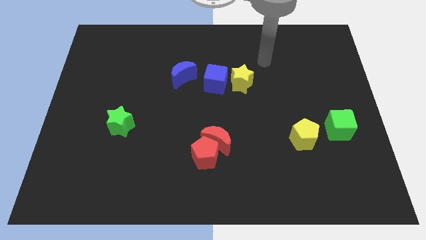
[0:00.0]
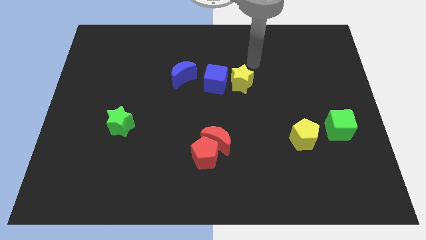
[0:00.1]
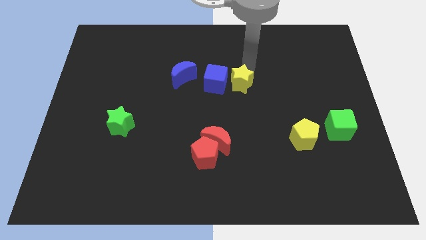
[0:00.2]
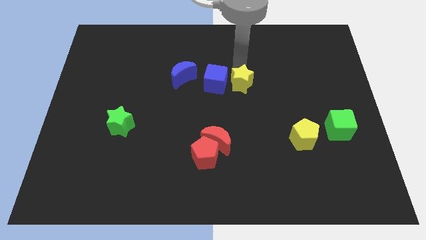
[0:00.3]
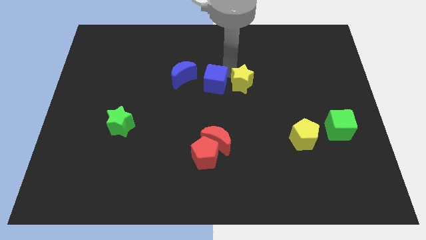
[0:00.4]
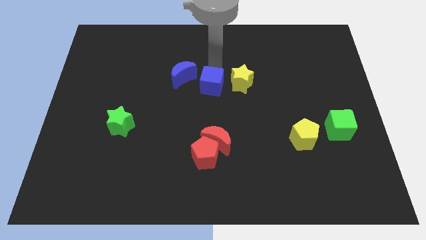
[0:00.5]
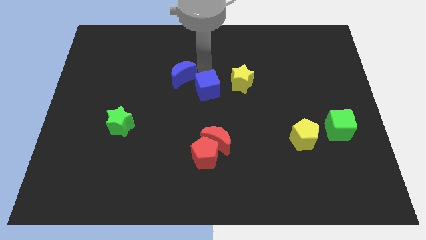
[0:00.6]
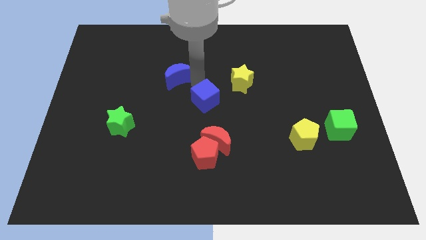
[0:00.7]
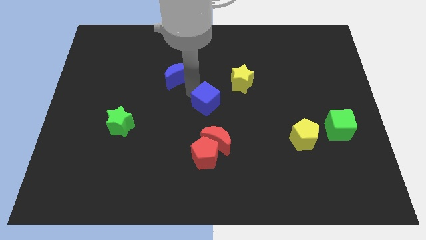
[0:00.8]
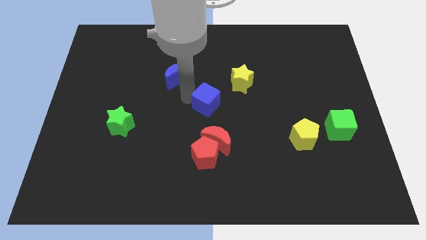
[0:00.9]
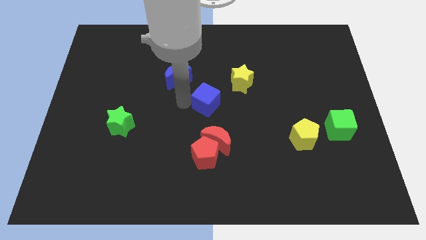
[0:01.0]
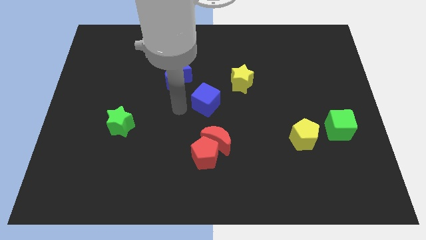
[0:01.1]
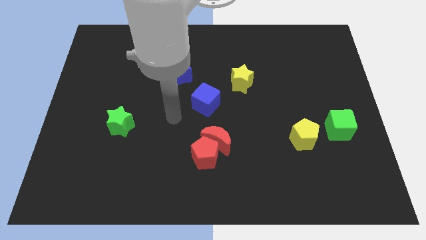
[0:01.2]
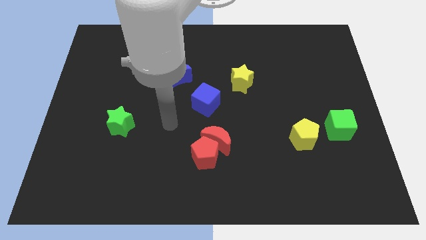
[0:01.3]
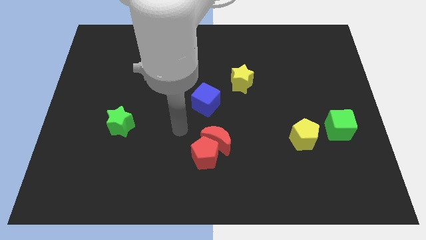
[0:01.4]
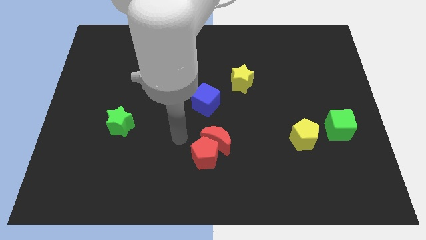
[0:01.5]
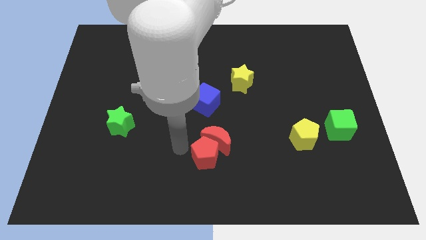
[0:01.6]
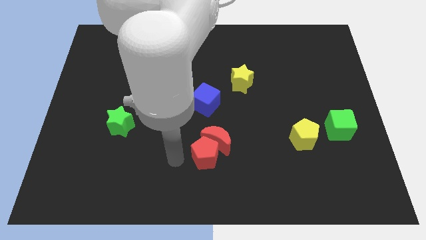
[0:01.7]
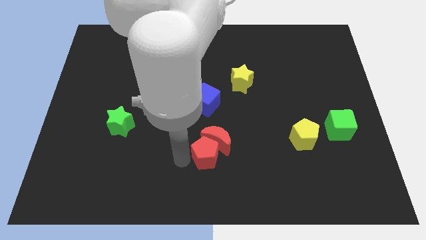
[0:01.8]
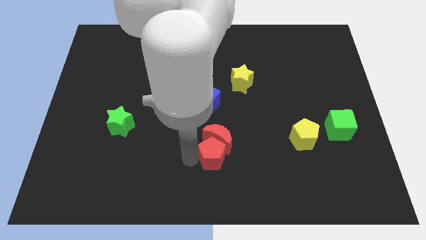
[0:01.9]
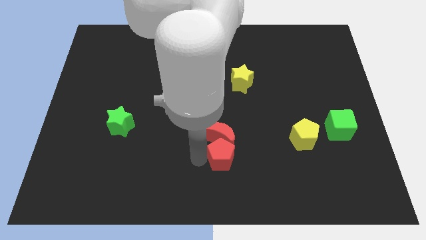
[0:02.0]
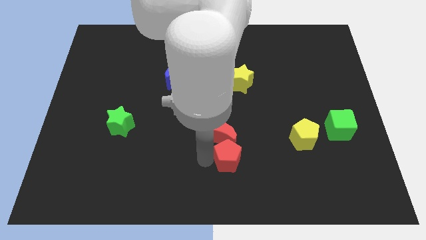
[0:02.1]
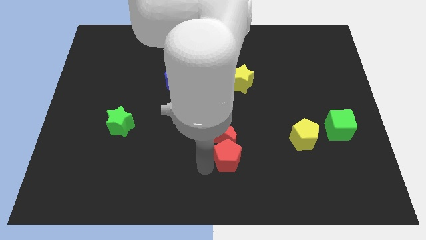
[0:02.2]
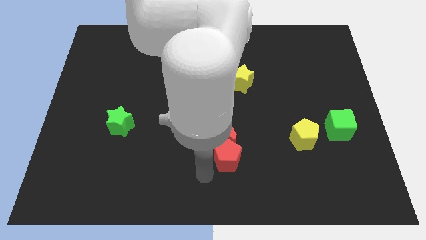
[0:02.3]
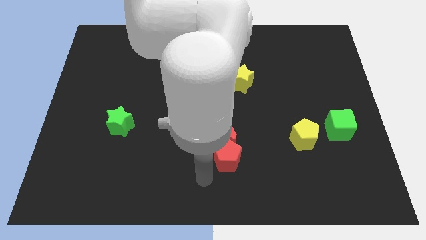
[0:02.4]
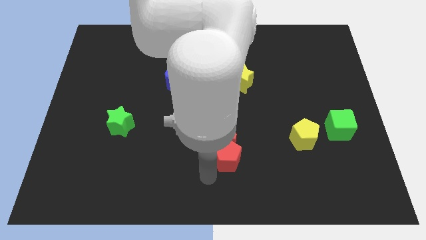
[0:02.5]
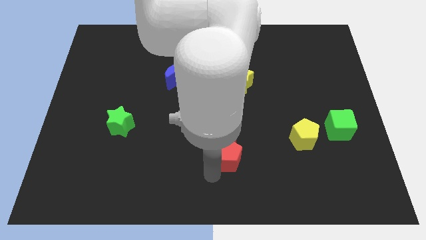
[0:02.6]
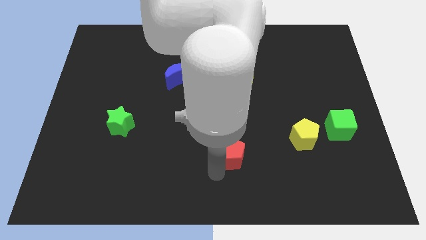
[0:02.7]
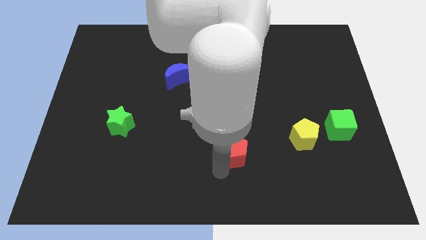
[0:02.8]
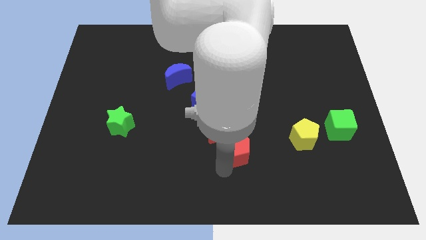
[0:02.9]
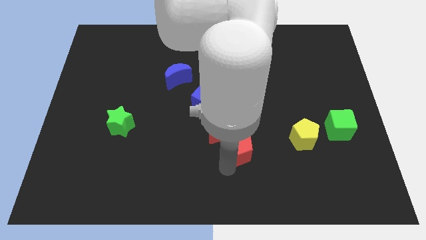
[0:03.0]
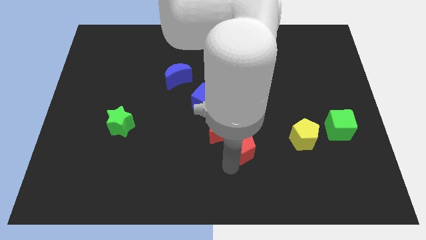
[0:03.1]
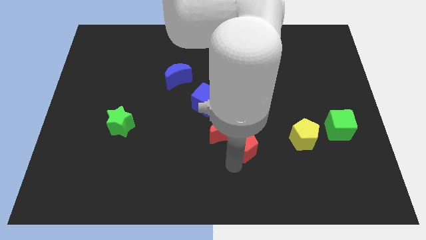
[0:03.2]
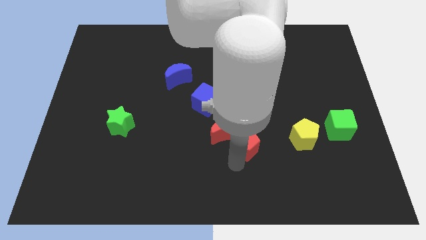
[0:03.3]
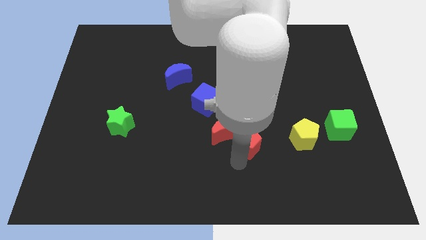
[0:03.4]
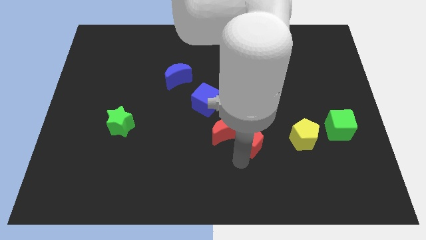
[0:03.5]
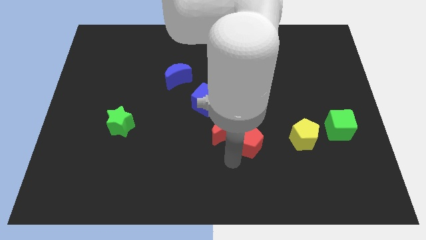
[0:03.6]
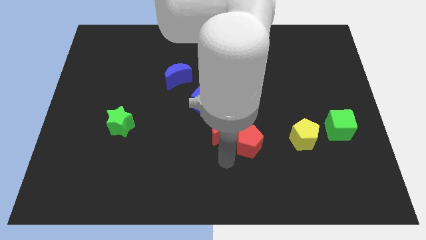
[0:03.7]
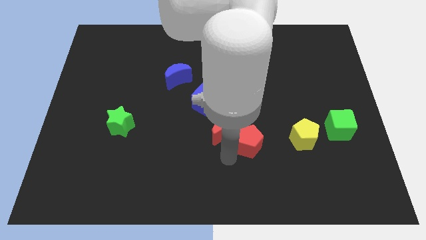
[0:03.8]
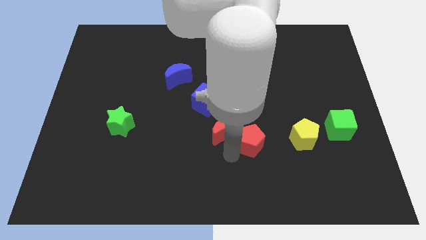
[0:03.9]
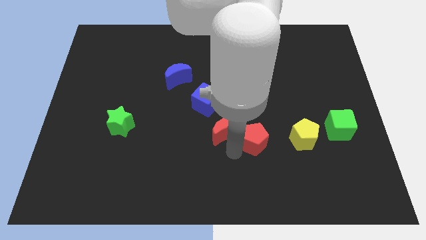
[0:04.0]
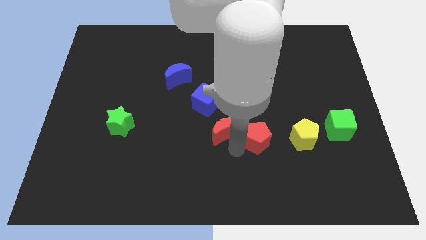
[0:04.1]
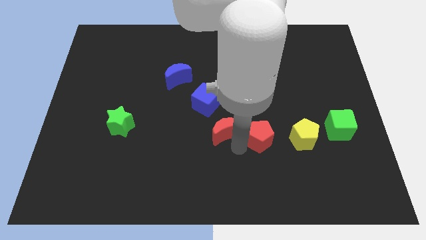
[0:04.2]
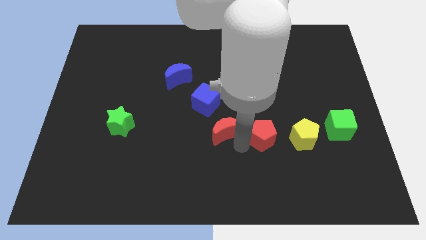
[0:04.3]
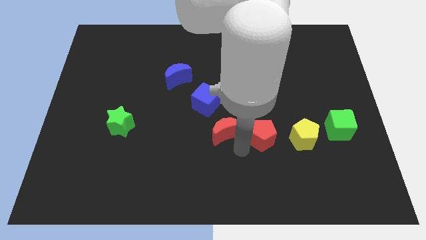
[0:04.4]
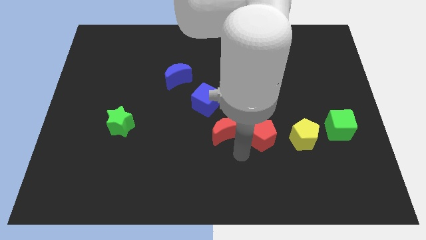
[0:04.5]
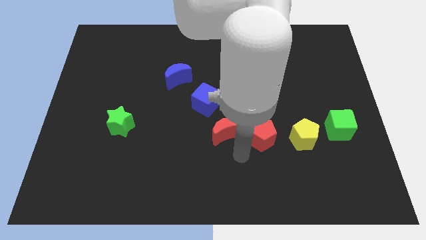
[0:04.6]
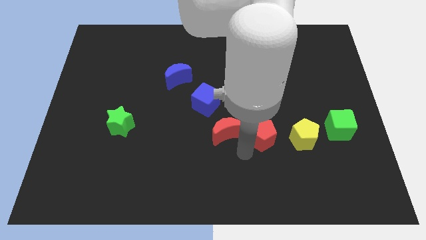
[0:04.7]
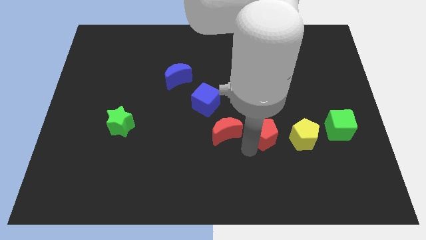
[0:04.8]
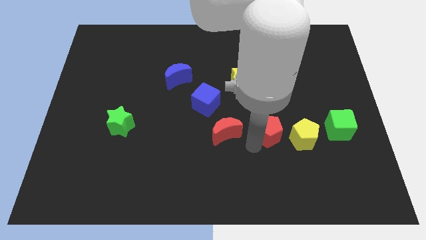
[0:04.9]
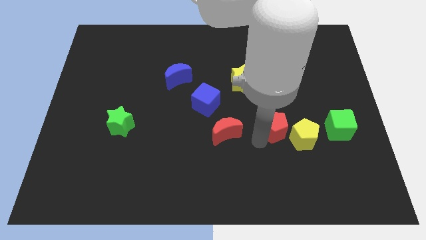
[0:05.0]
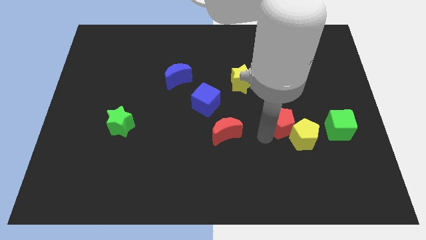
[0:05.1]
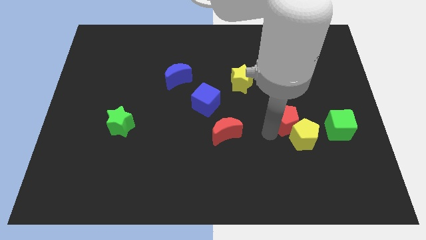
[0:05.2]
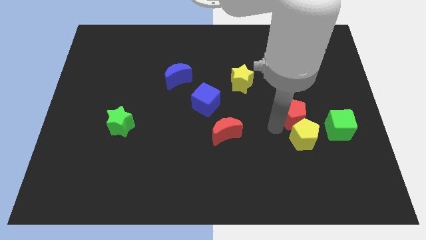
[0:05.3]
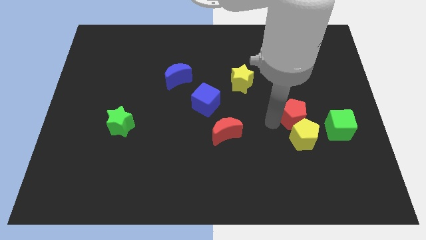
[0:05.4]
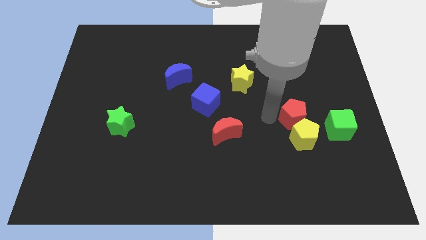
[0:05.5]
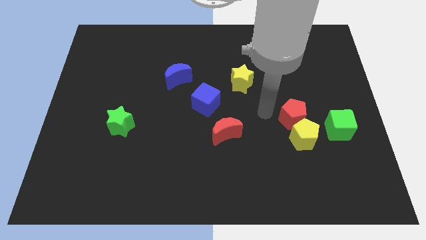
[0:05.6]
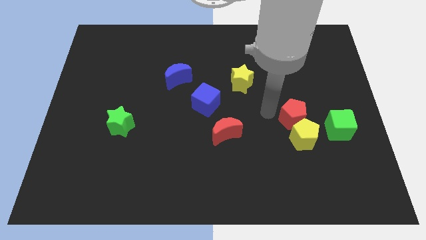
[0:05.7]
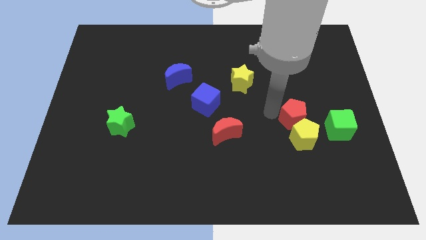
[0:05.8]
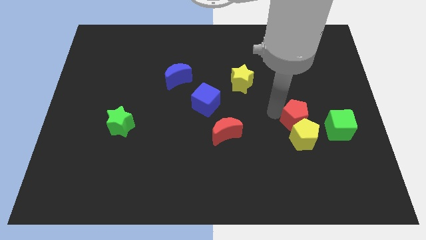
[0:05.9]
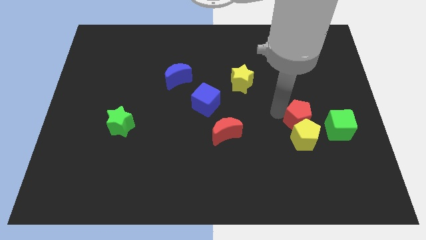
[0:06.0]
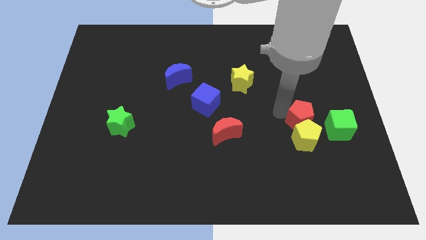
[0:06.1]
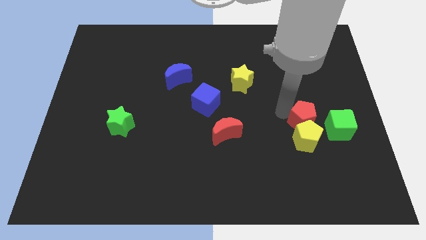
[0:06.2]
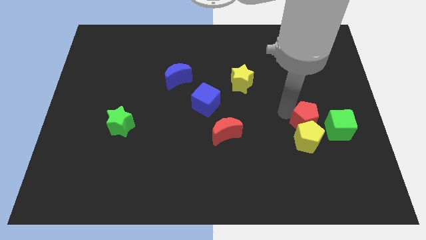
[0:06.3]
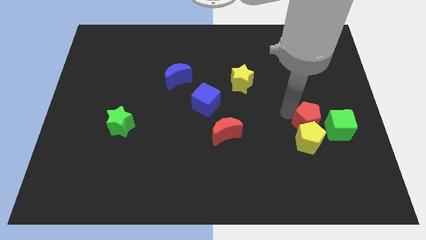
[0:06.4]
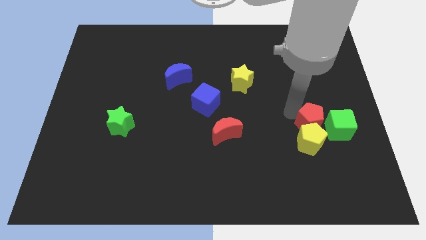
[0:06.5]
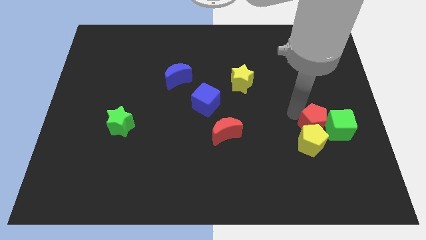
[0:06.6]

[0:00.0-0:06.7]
slide the red pentagon towards the green cube

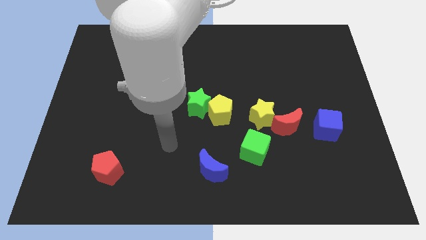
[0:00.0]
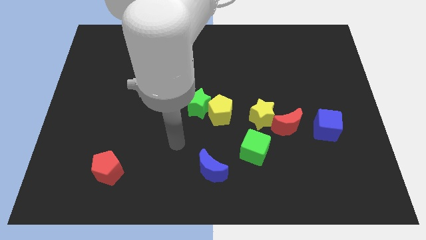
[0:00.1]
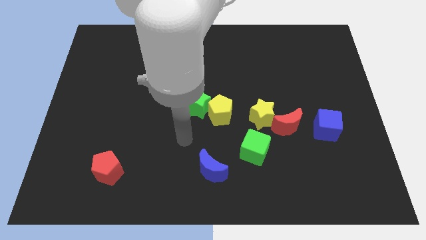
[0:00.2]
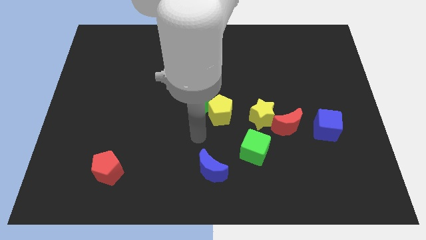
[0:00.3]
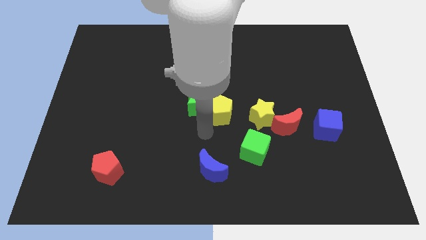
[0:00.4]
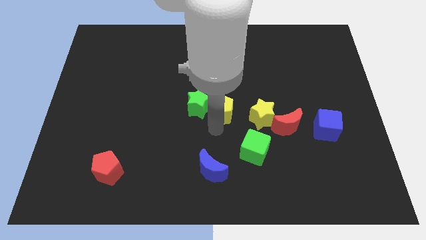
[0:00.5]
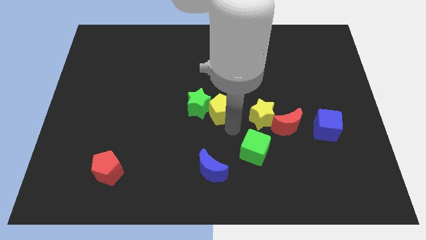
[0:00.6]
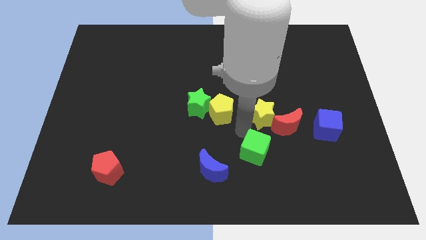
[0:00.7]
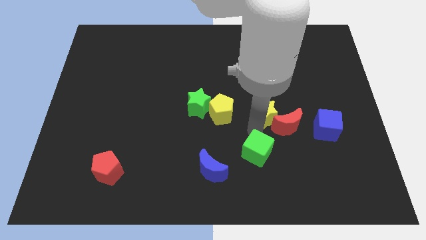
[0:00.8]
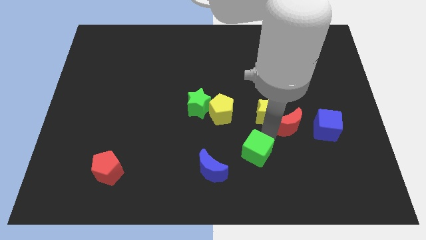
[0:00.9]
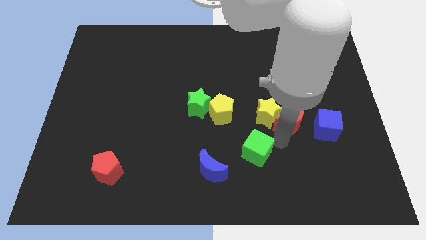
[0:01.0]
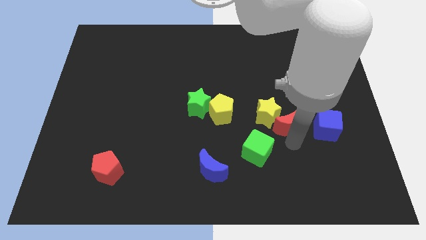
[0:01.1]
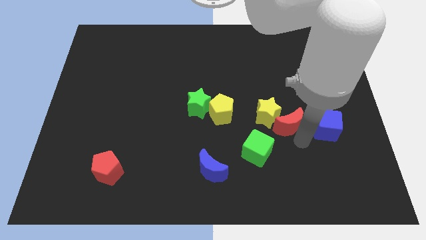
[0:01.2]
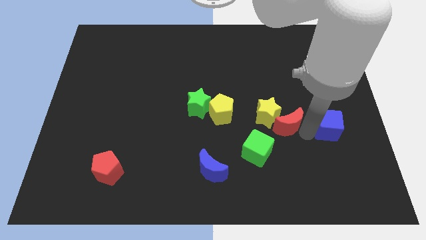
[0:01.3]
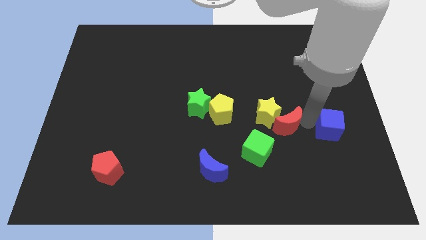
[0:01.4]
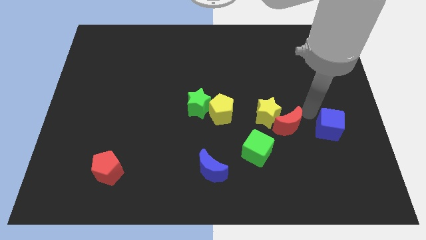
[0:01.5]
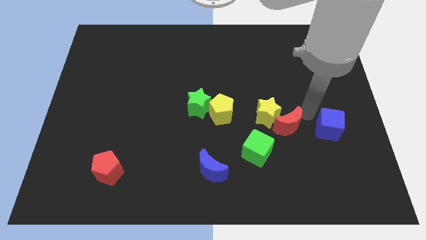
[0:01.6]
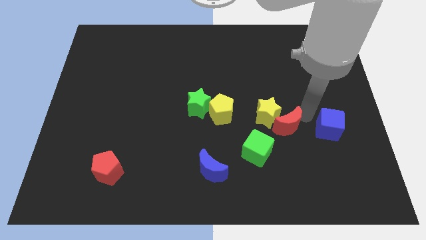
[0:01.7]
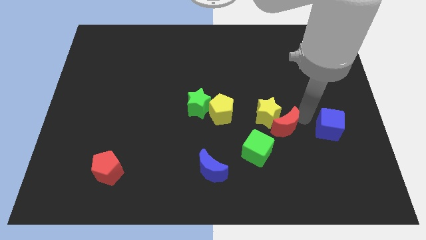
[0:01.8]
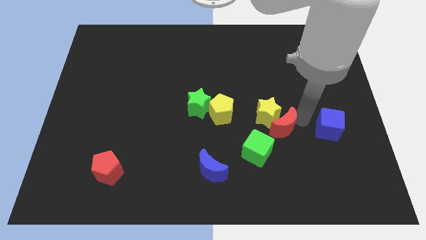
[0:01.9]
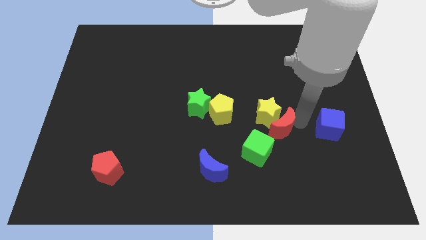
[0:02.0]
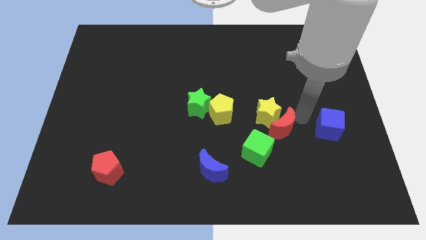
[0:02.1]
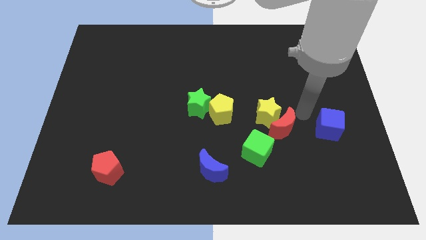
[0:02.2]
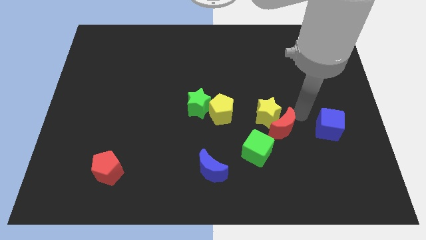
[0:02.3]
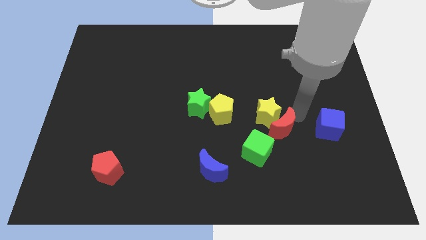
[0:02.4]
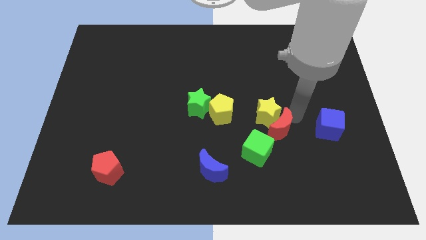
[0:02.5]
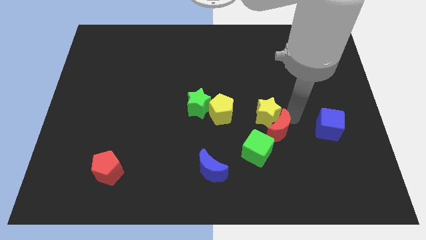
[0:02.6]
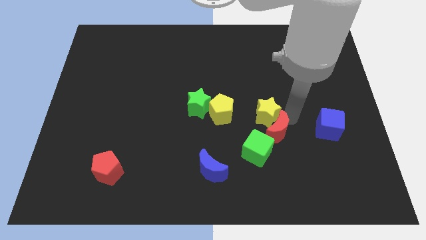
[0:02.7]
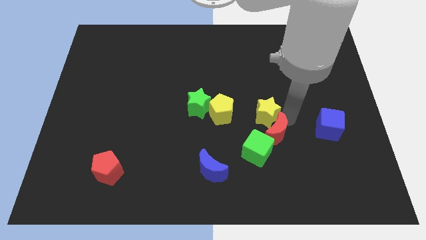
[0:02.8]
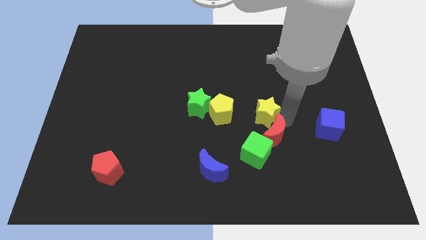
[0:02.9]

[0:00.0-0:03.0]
push the red moon next to the green cube
